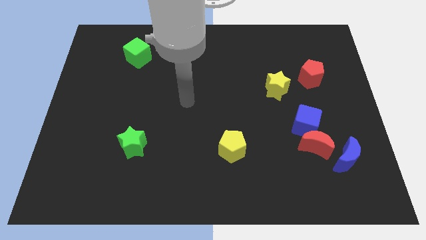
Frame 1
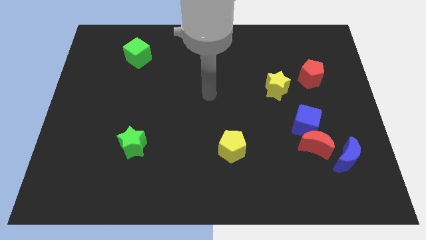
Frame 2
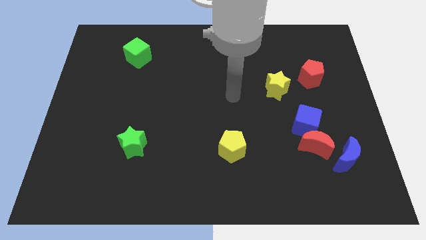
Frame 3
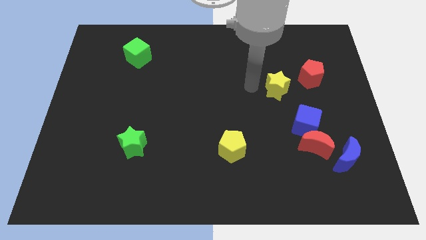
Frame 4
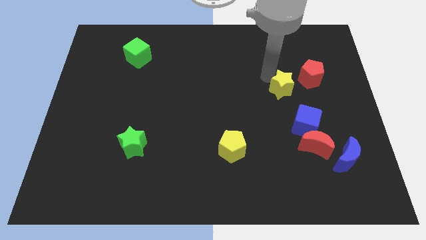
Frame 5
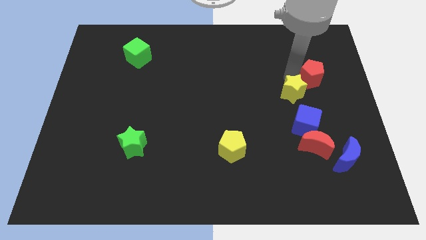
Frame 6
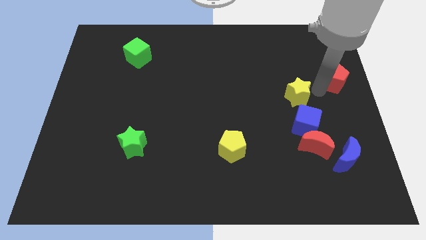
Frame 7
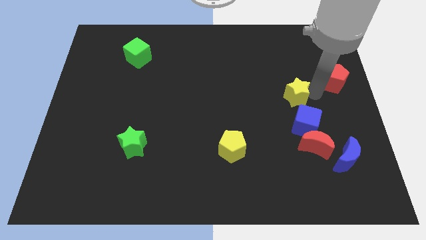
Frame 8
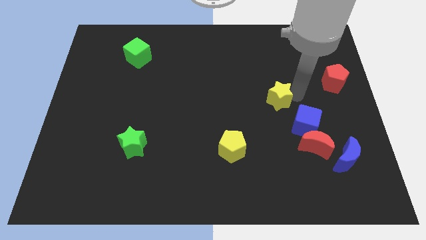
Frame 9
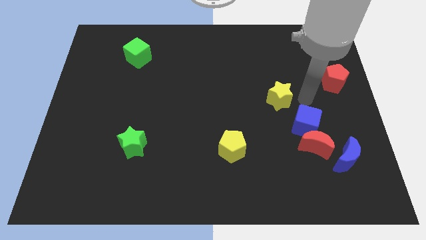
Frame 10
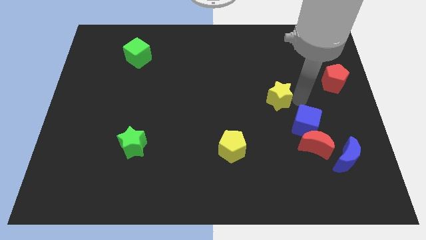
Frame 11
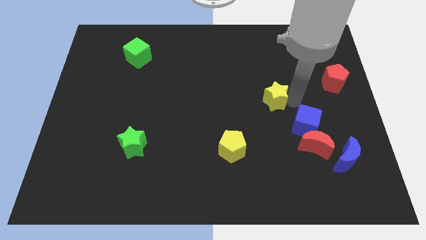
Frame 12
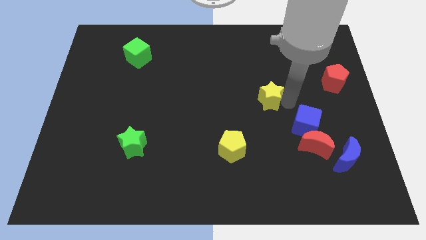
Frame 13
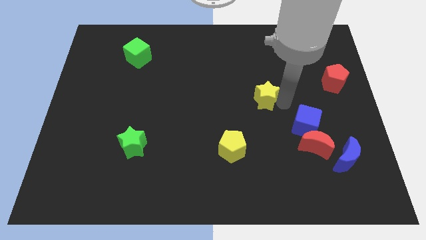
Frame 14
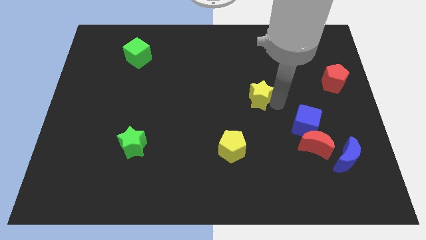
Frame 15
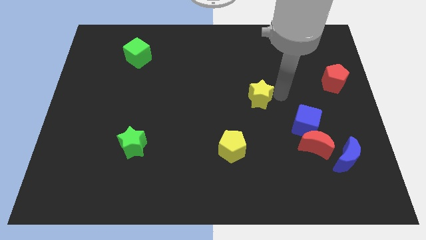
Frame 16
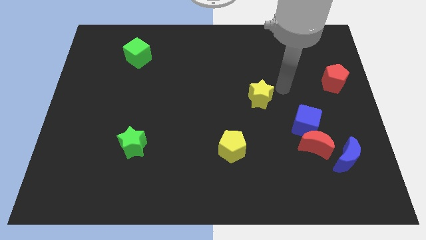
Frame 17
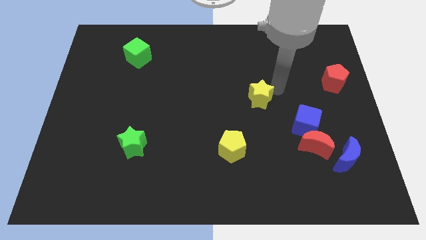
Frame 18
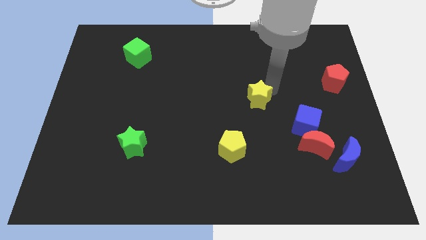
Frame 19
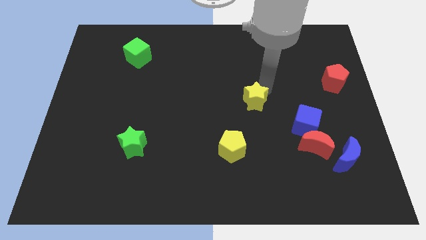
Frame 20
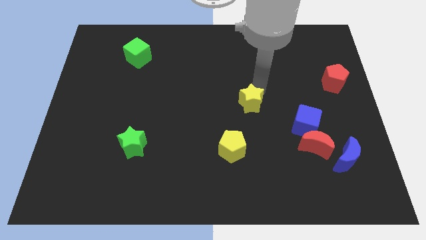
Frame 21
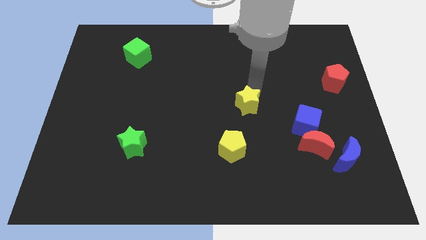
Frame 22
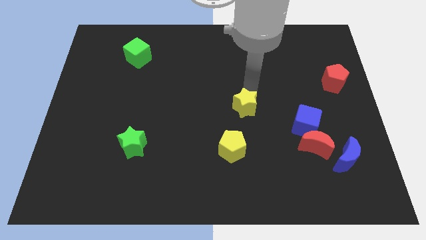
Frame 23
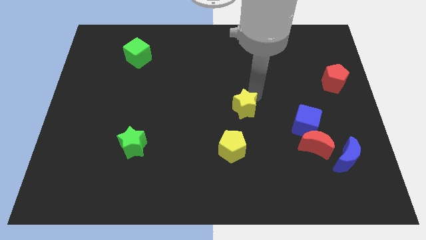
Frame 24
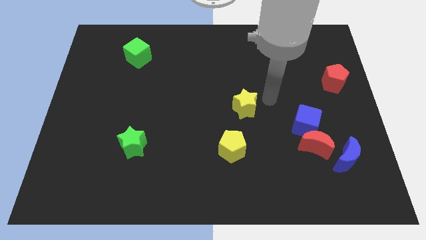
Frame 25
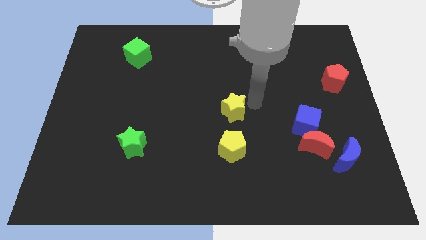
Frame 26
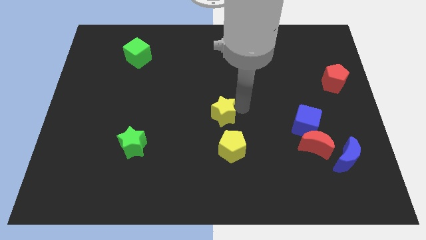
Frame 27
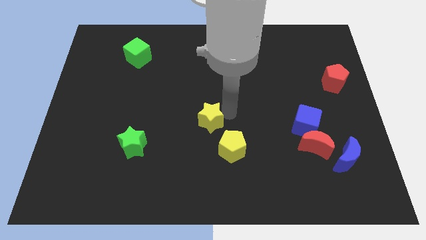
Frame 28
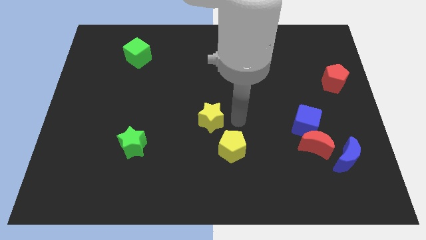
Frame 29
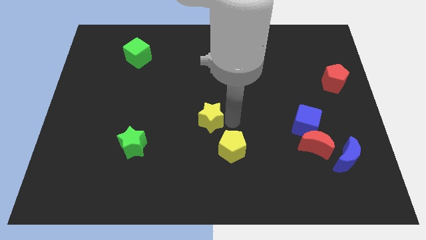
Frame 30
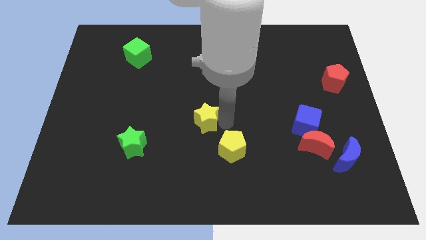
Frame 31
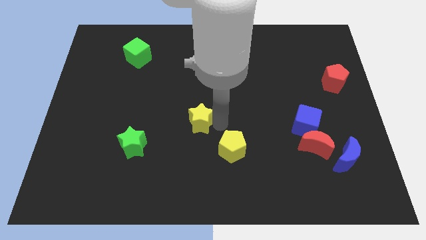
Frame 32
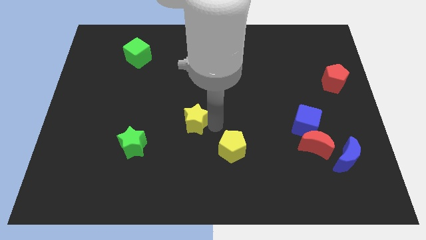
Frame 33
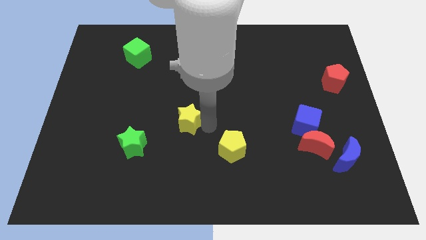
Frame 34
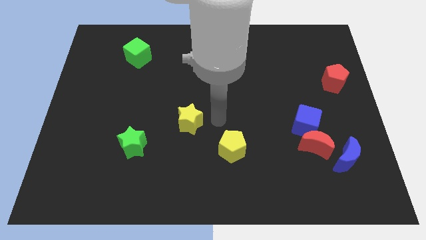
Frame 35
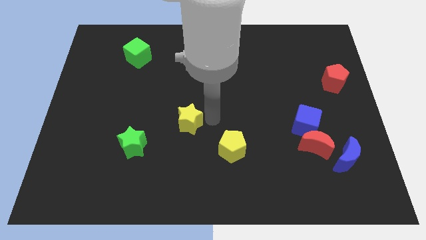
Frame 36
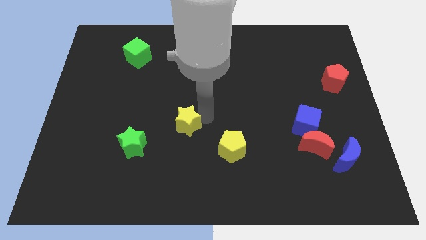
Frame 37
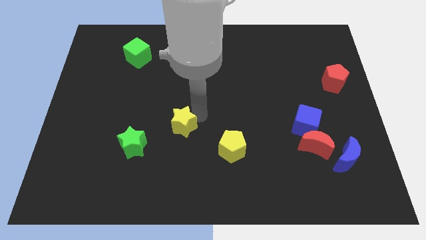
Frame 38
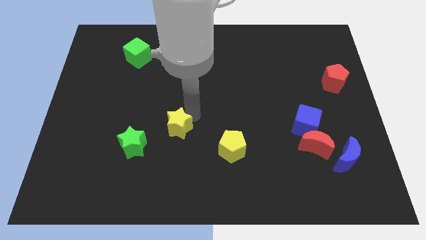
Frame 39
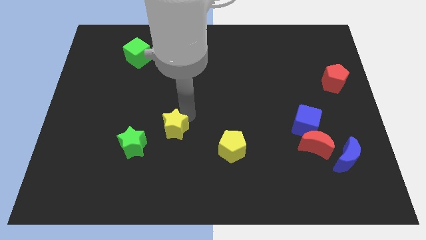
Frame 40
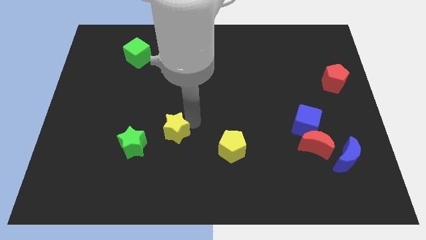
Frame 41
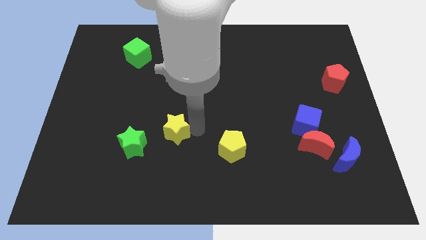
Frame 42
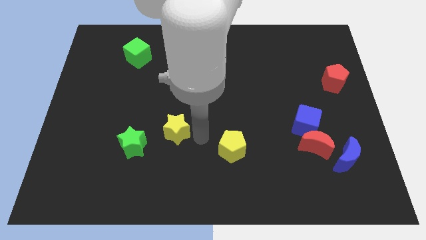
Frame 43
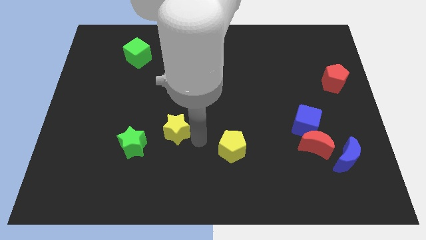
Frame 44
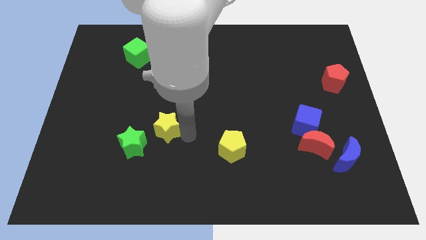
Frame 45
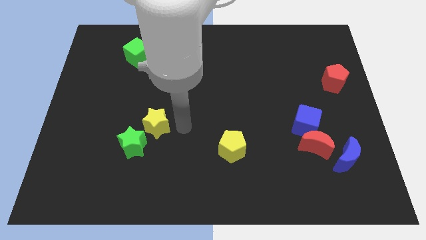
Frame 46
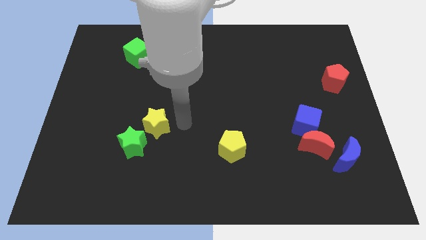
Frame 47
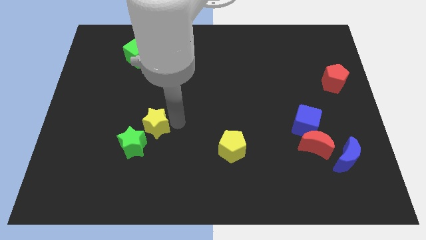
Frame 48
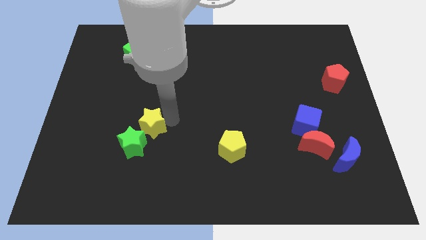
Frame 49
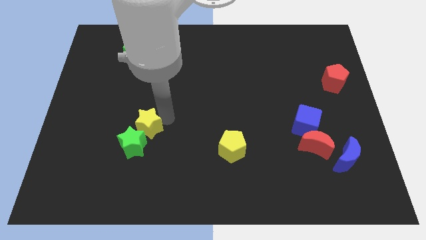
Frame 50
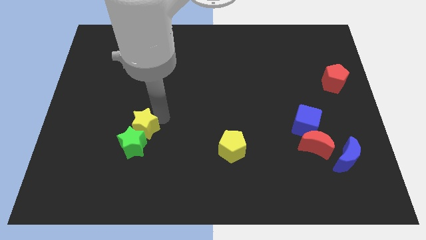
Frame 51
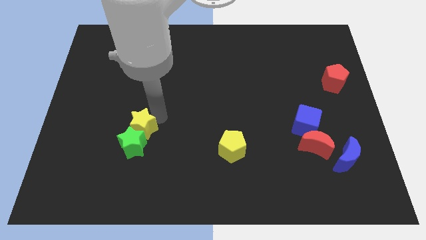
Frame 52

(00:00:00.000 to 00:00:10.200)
put the yellow star to the top left of the green star

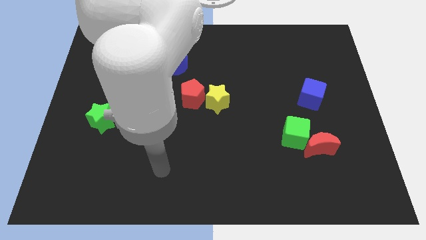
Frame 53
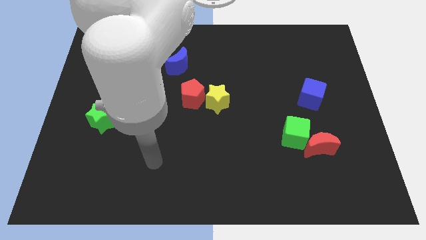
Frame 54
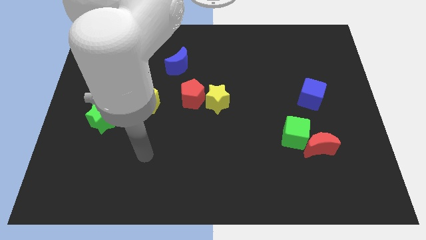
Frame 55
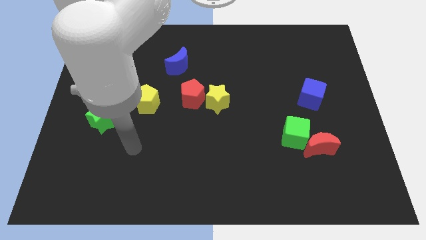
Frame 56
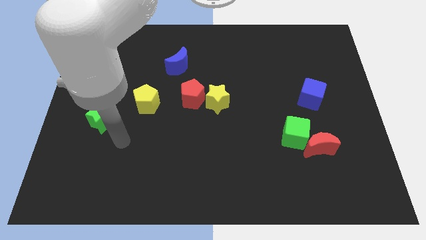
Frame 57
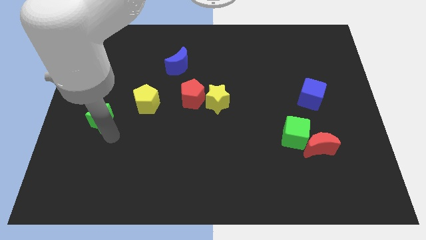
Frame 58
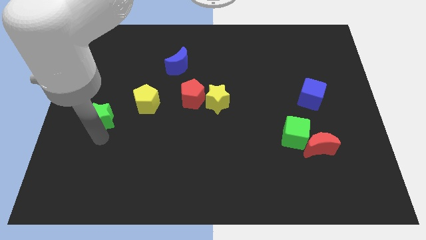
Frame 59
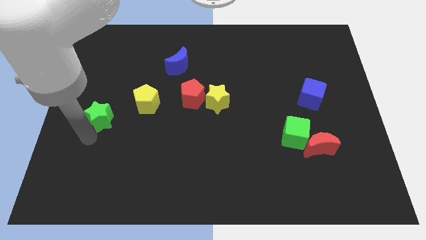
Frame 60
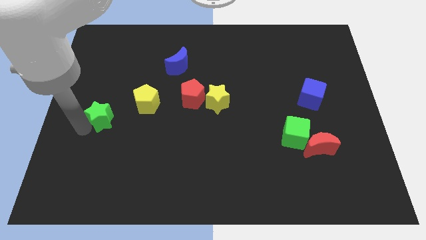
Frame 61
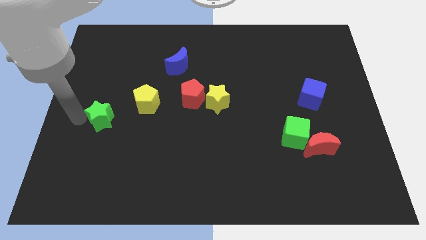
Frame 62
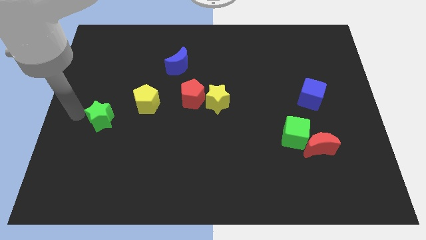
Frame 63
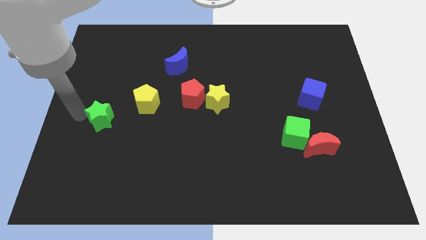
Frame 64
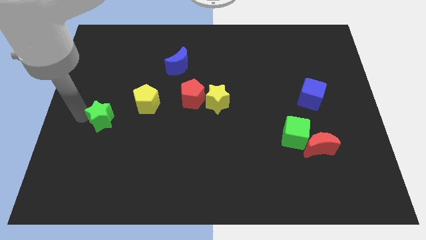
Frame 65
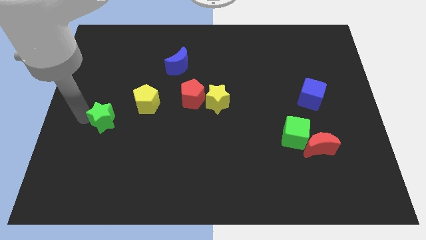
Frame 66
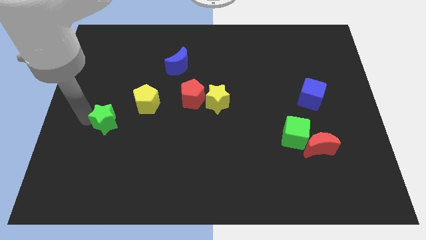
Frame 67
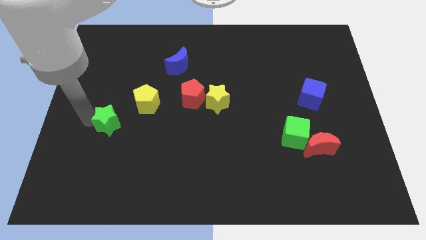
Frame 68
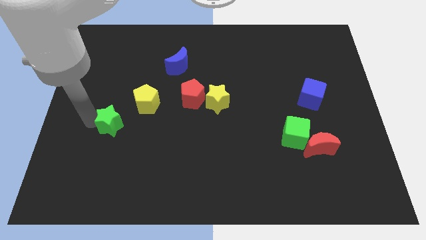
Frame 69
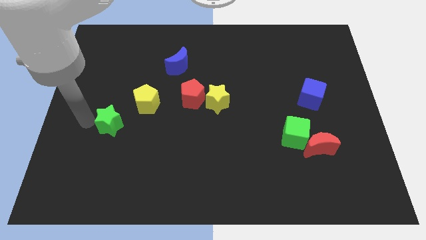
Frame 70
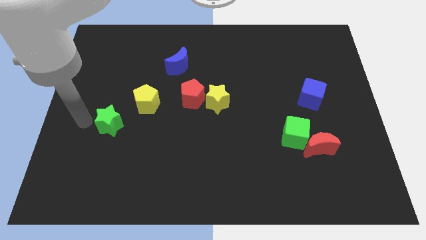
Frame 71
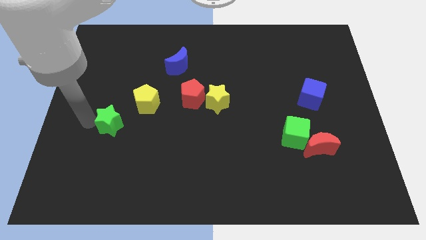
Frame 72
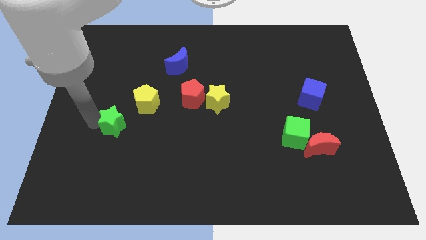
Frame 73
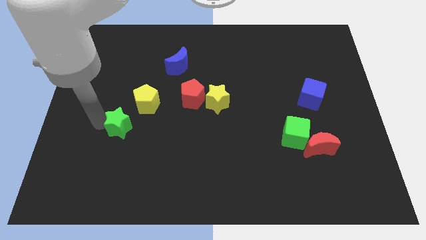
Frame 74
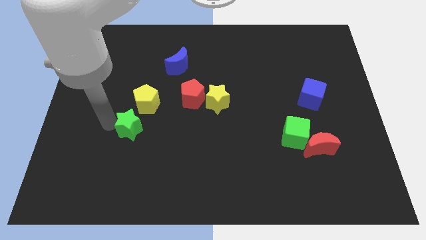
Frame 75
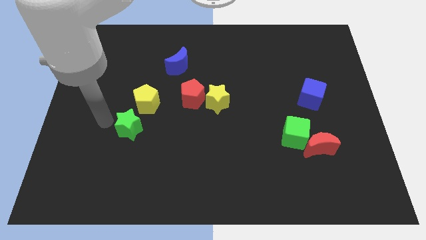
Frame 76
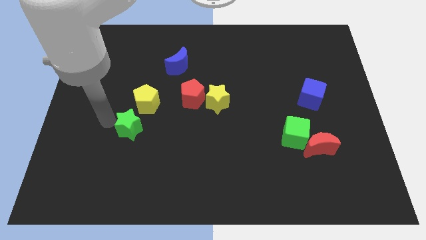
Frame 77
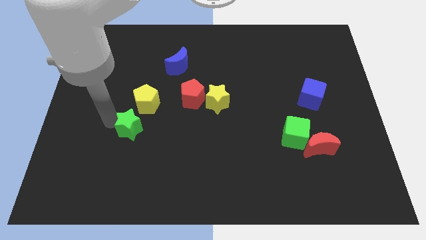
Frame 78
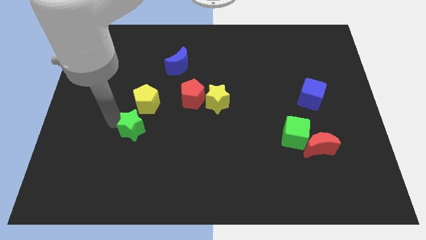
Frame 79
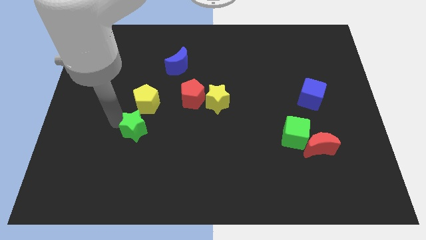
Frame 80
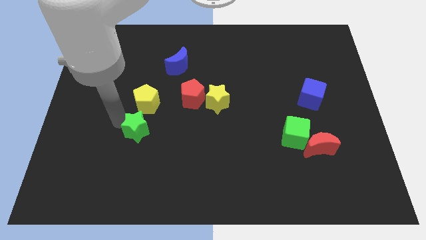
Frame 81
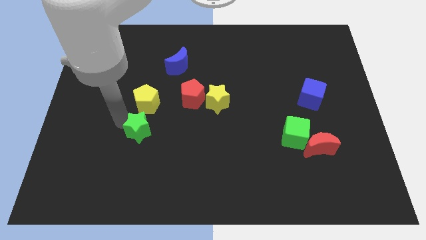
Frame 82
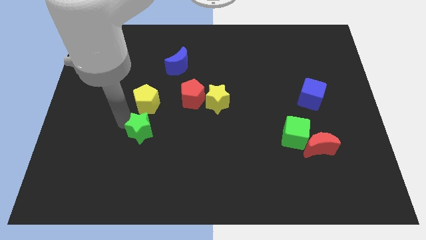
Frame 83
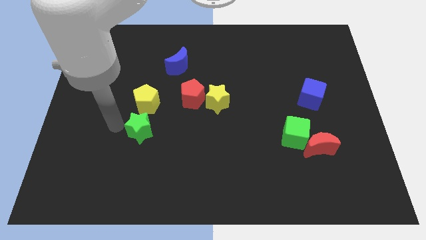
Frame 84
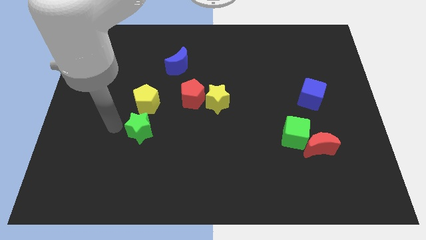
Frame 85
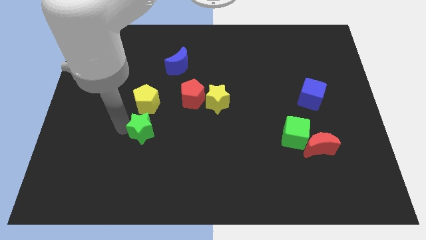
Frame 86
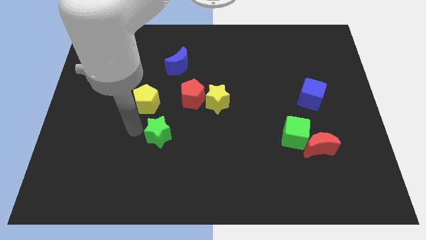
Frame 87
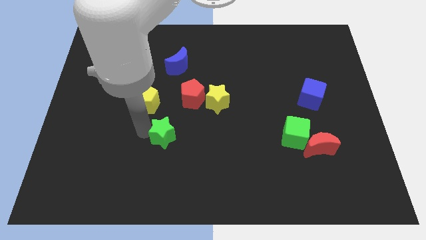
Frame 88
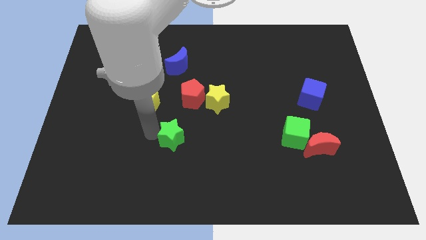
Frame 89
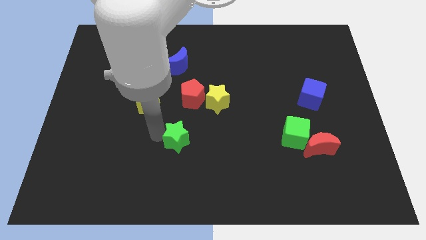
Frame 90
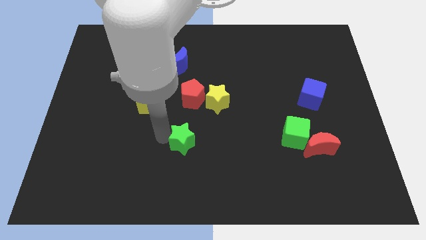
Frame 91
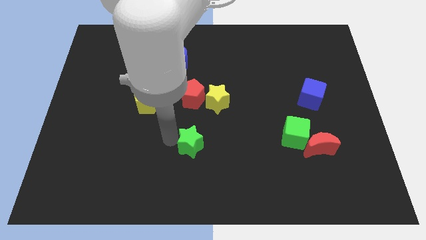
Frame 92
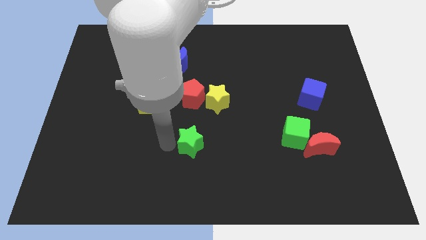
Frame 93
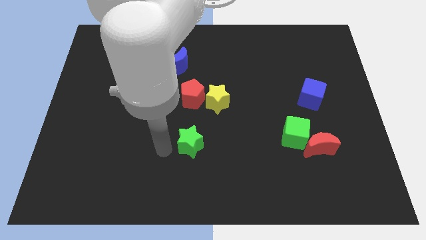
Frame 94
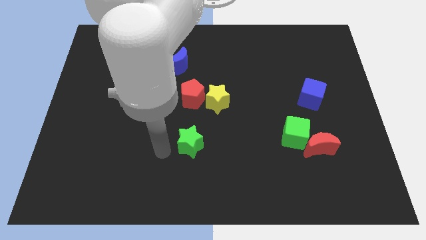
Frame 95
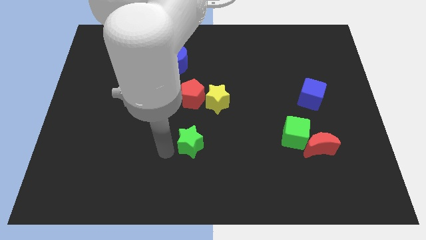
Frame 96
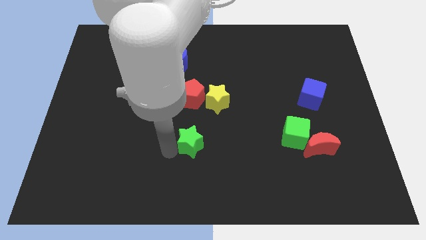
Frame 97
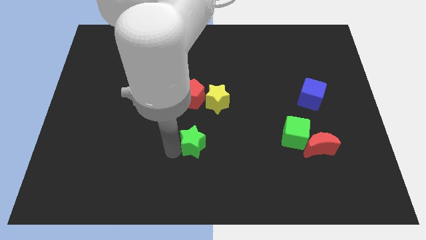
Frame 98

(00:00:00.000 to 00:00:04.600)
move the green star to the bottom of the yellow star
